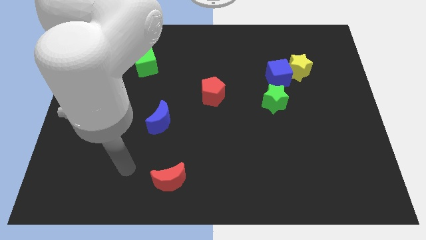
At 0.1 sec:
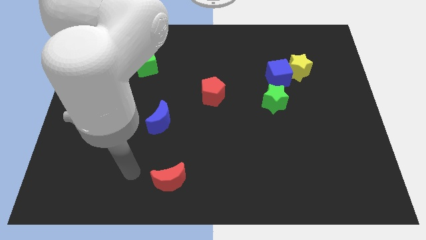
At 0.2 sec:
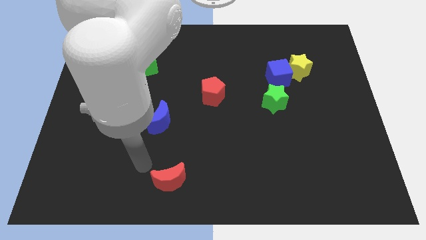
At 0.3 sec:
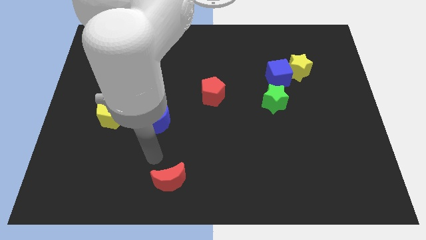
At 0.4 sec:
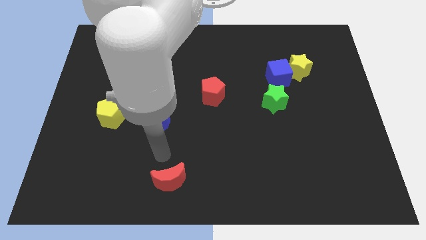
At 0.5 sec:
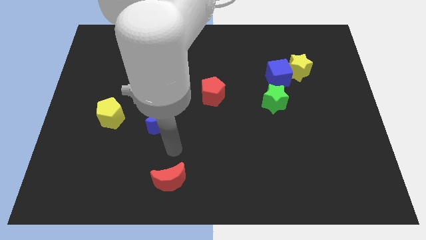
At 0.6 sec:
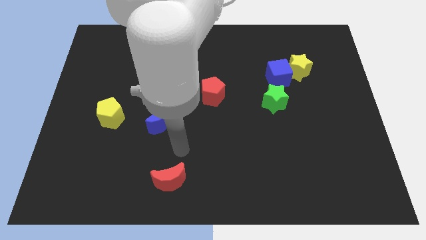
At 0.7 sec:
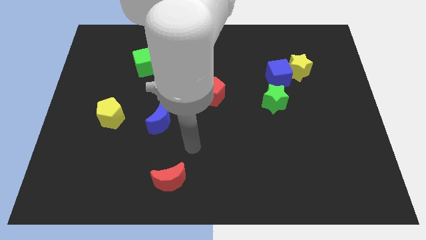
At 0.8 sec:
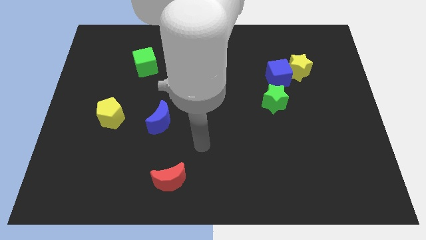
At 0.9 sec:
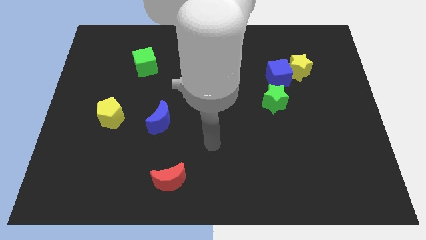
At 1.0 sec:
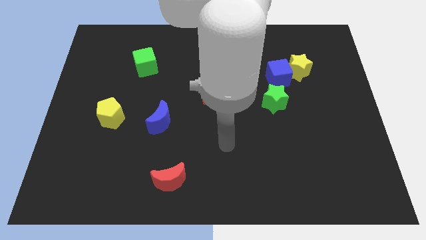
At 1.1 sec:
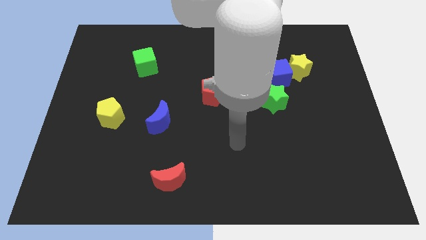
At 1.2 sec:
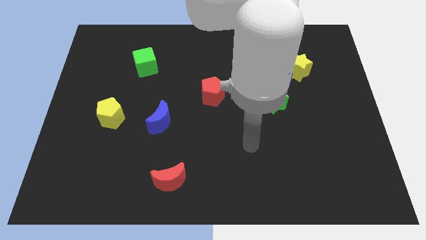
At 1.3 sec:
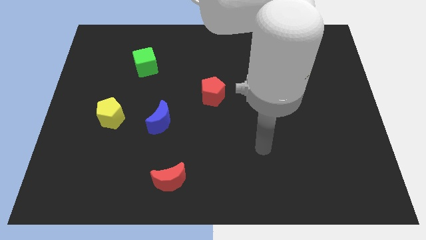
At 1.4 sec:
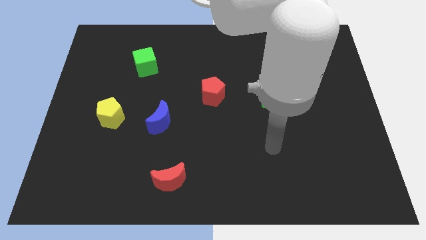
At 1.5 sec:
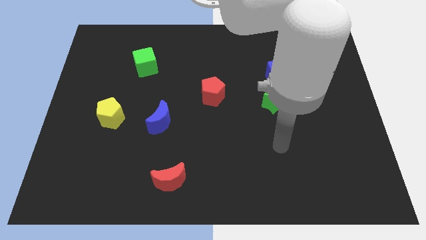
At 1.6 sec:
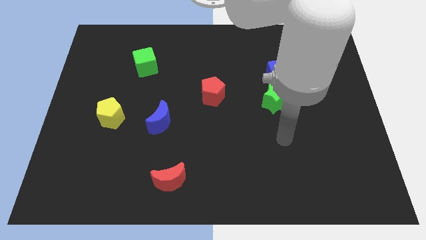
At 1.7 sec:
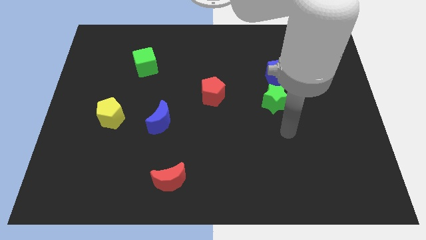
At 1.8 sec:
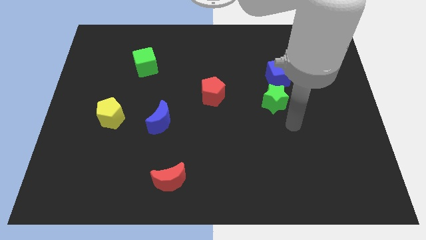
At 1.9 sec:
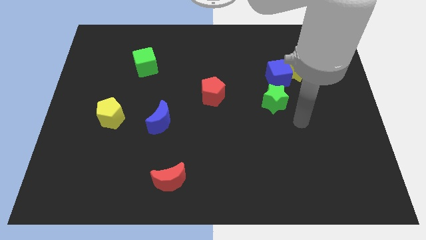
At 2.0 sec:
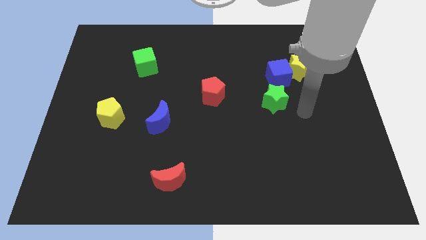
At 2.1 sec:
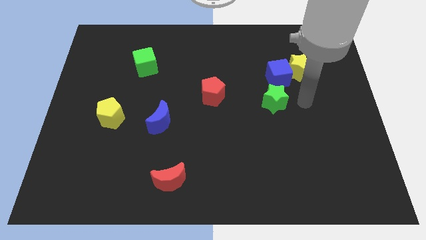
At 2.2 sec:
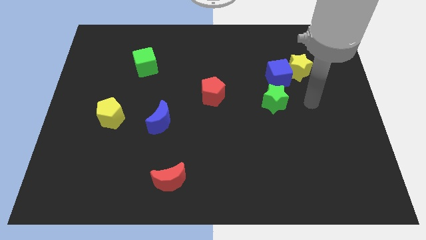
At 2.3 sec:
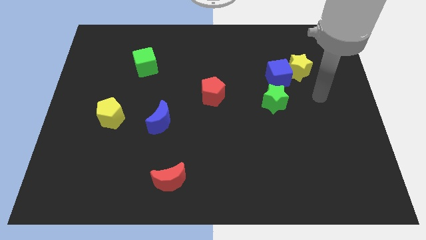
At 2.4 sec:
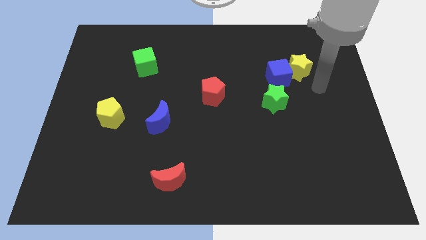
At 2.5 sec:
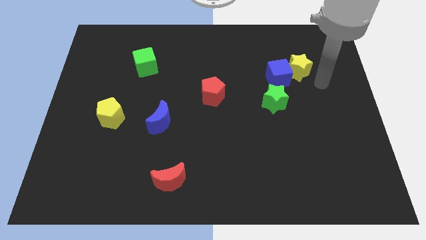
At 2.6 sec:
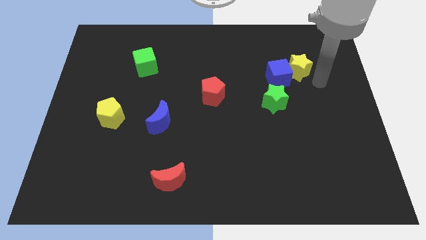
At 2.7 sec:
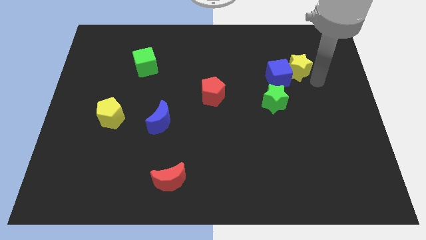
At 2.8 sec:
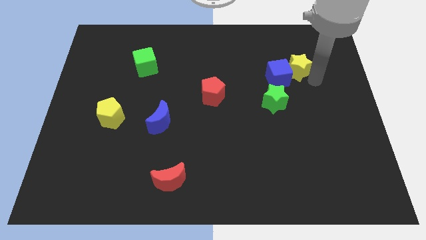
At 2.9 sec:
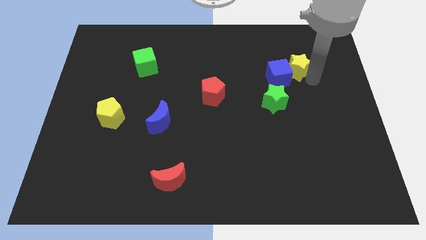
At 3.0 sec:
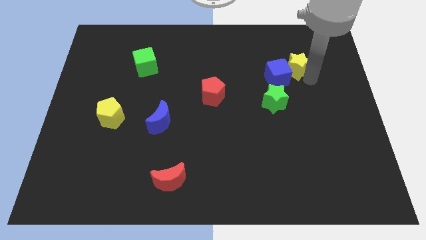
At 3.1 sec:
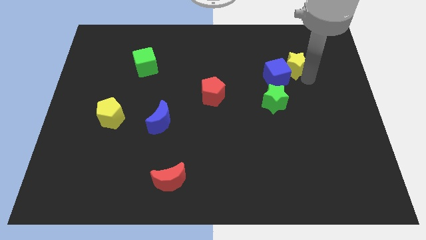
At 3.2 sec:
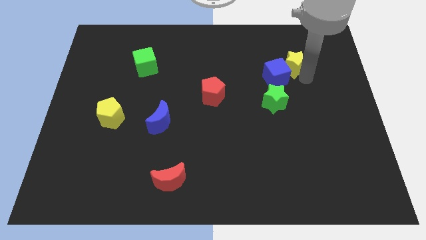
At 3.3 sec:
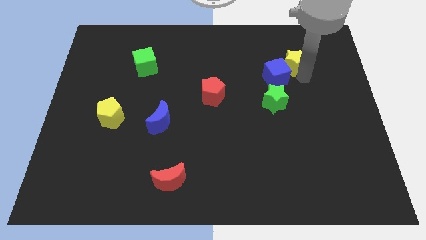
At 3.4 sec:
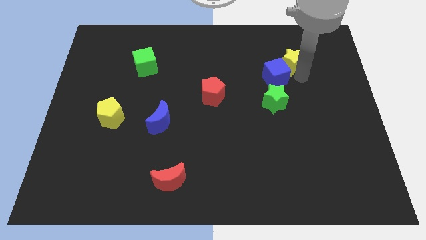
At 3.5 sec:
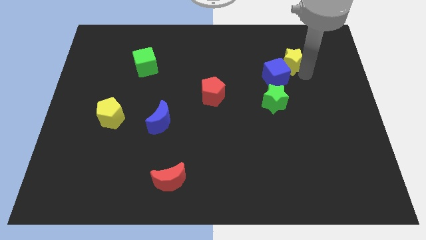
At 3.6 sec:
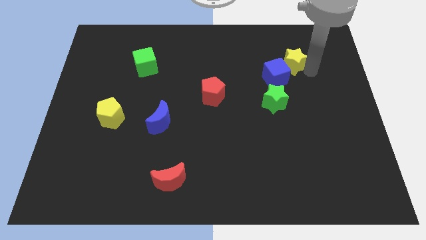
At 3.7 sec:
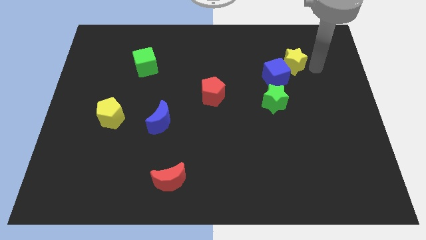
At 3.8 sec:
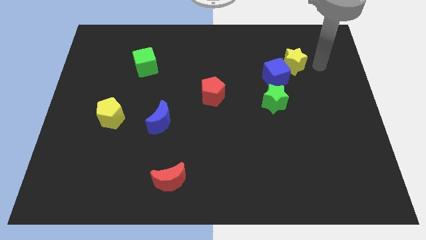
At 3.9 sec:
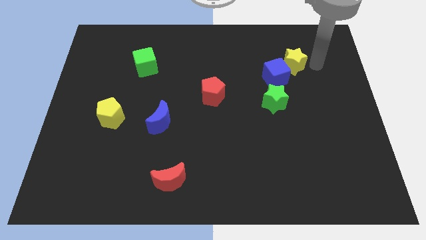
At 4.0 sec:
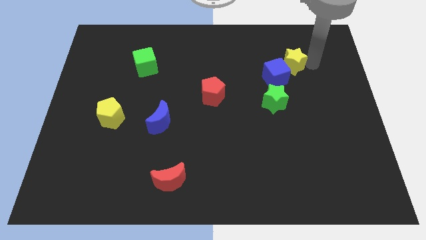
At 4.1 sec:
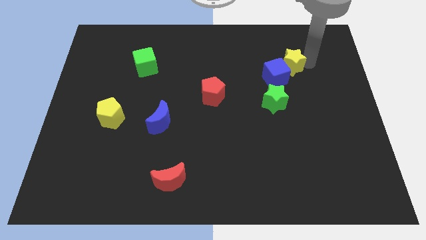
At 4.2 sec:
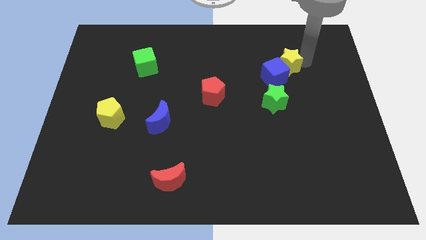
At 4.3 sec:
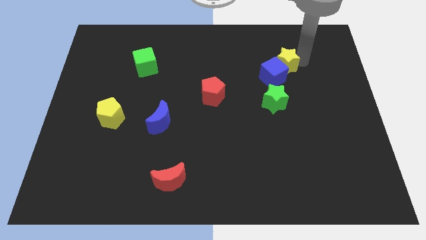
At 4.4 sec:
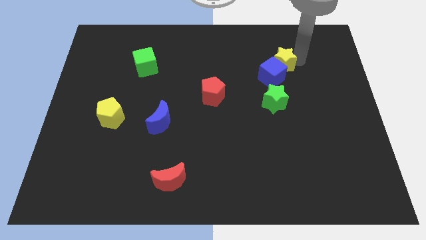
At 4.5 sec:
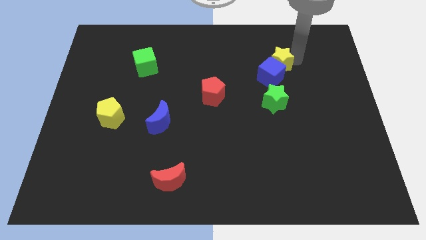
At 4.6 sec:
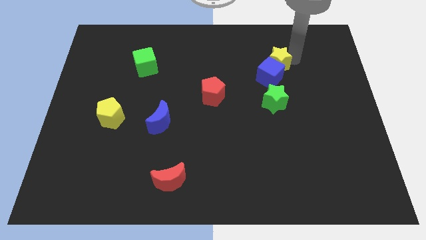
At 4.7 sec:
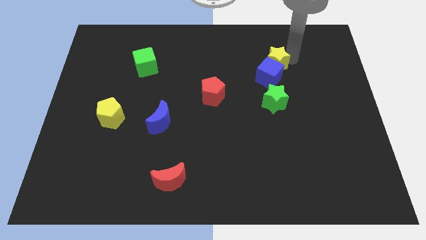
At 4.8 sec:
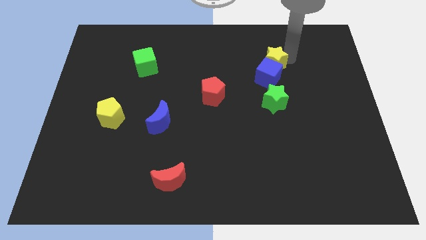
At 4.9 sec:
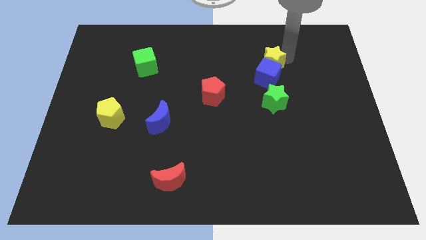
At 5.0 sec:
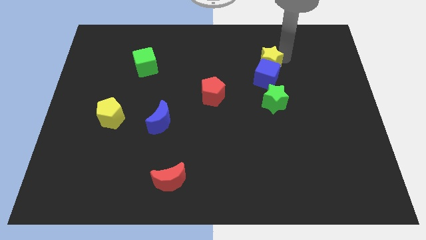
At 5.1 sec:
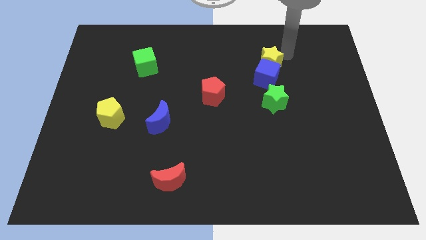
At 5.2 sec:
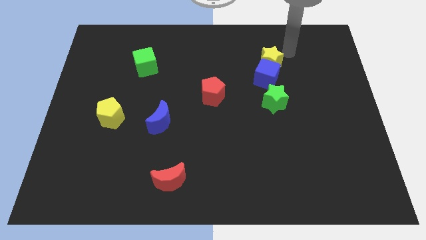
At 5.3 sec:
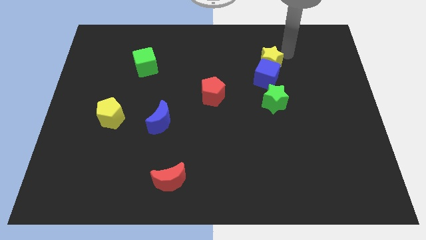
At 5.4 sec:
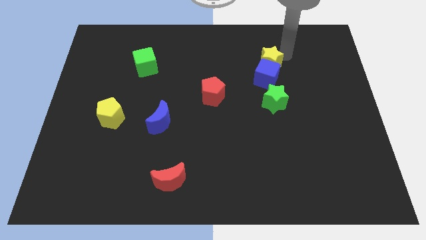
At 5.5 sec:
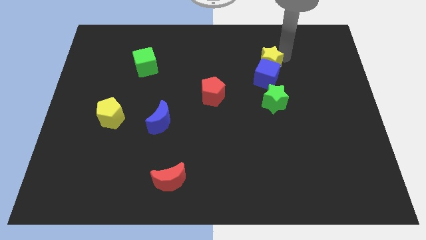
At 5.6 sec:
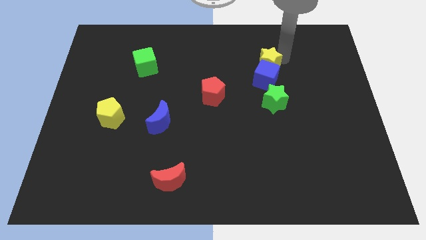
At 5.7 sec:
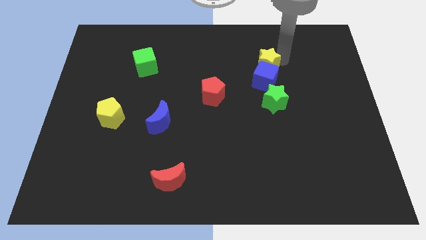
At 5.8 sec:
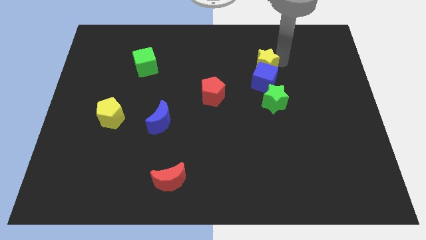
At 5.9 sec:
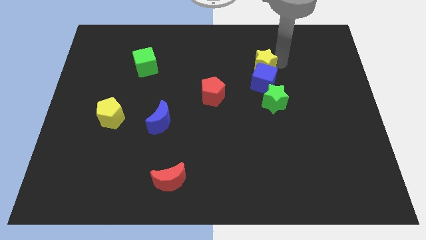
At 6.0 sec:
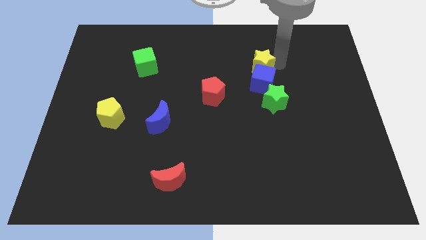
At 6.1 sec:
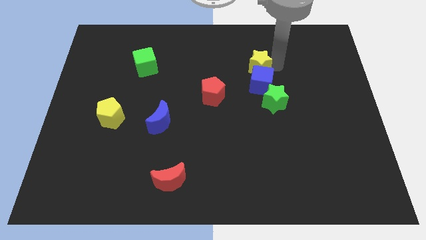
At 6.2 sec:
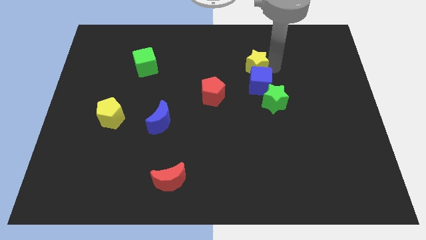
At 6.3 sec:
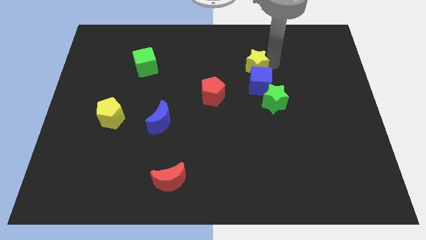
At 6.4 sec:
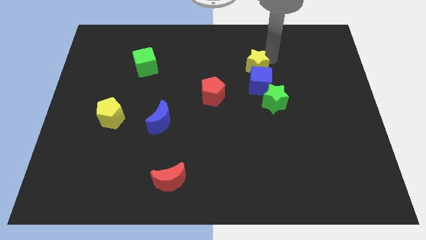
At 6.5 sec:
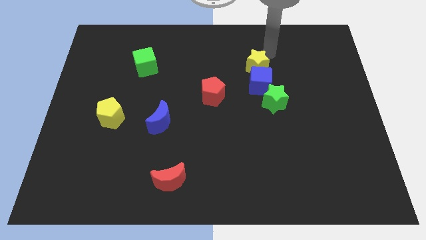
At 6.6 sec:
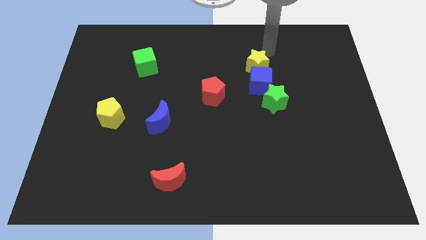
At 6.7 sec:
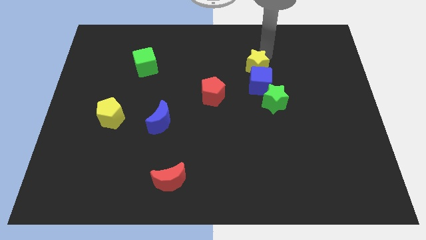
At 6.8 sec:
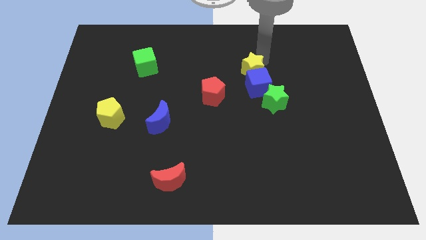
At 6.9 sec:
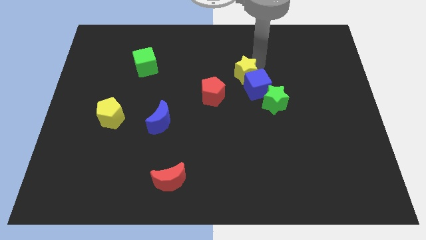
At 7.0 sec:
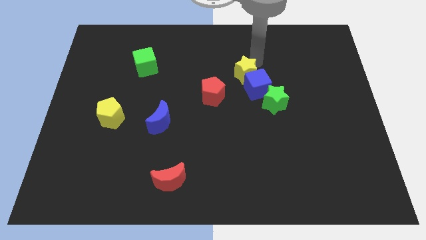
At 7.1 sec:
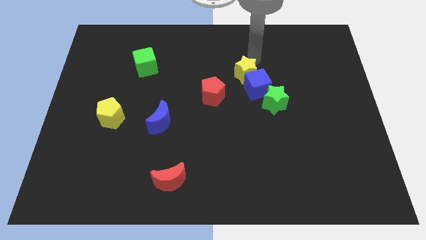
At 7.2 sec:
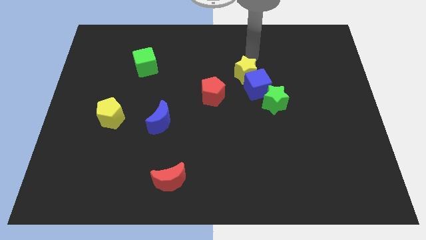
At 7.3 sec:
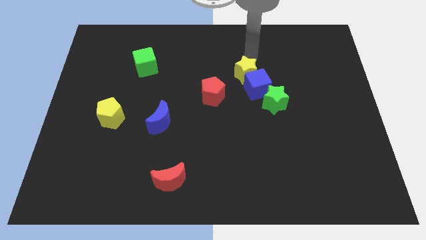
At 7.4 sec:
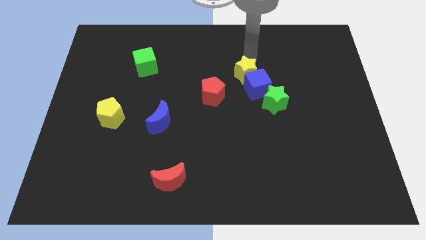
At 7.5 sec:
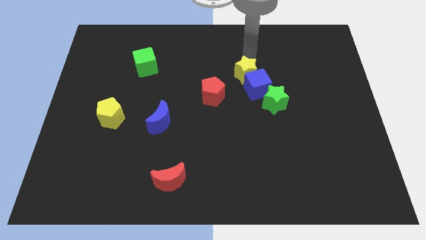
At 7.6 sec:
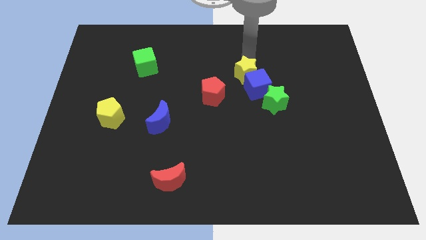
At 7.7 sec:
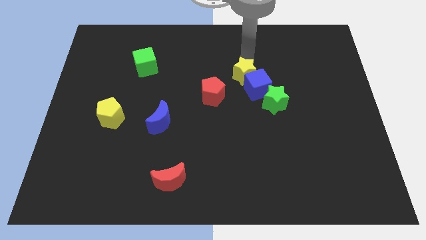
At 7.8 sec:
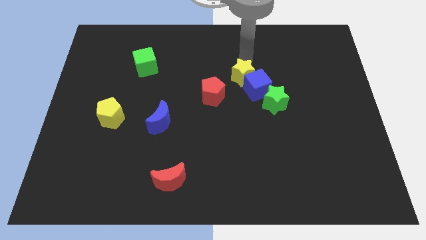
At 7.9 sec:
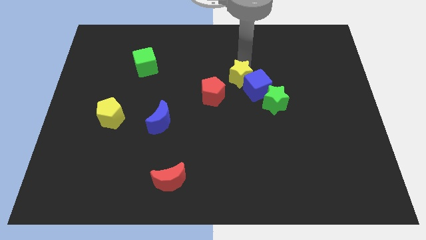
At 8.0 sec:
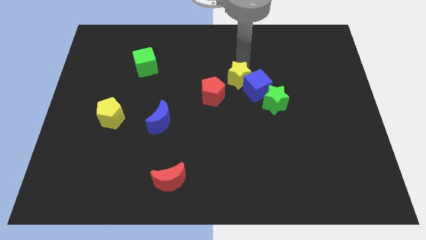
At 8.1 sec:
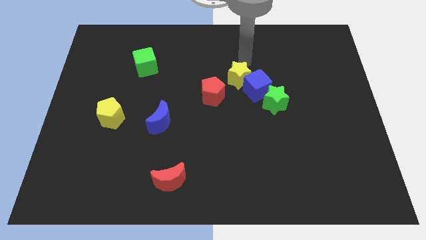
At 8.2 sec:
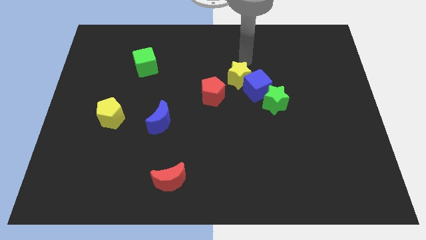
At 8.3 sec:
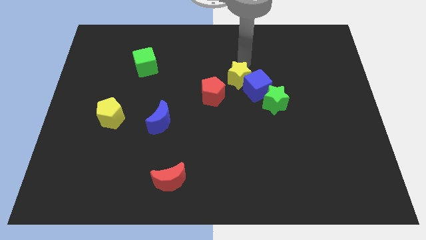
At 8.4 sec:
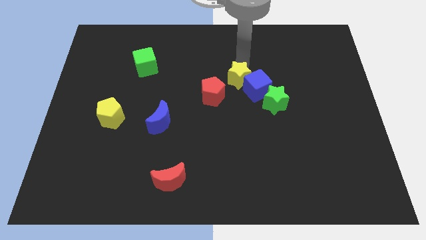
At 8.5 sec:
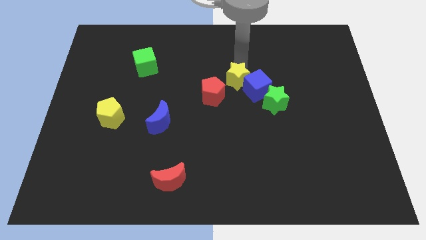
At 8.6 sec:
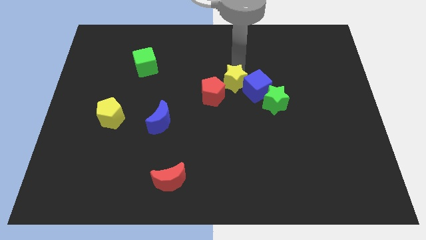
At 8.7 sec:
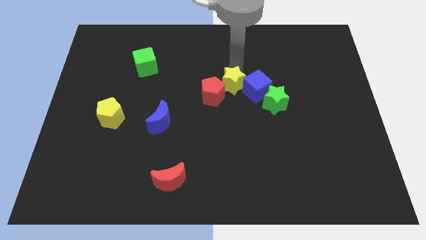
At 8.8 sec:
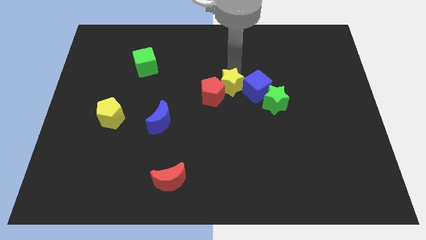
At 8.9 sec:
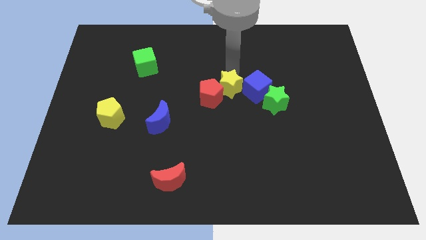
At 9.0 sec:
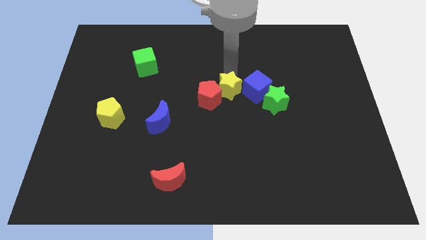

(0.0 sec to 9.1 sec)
push the yellow star left of the green star
